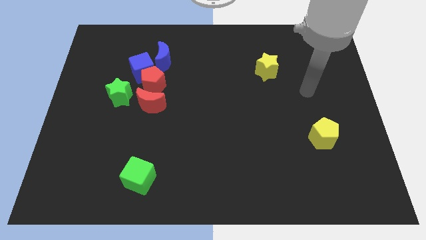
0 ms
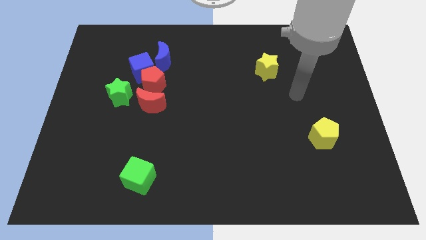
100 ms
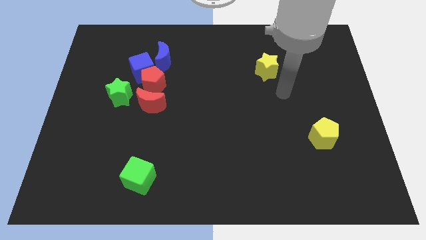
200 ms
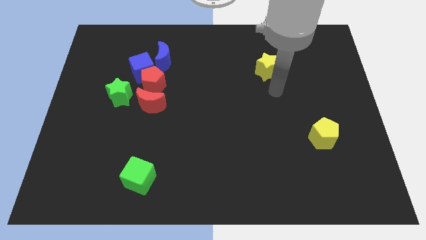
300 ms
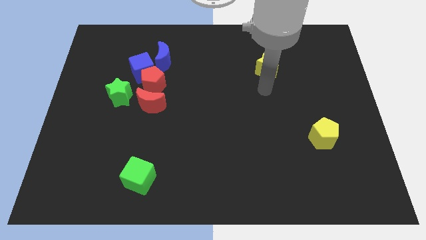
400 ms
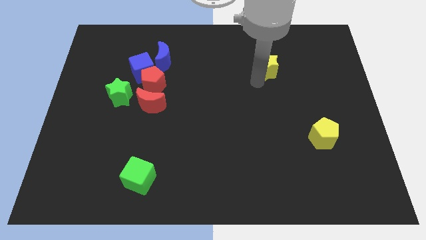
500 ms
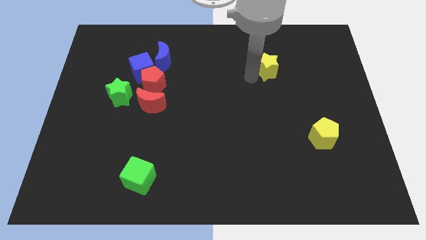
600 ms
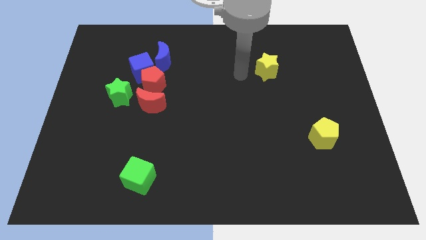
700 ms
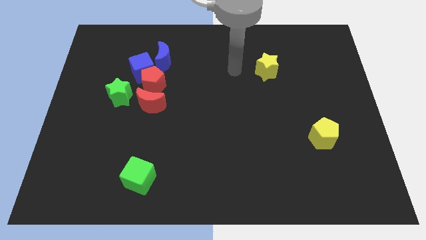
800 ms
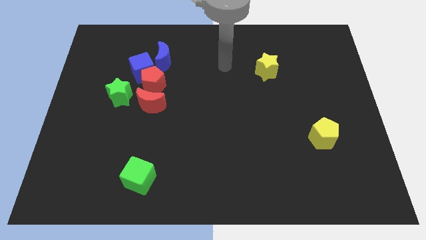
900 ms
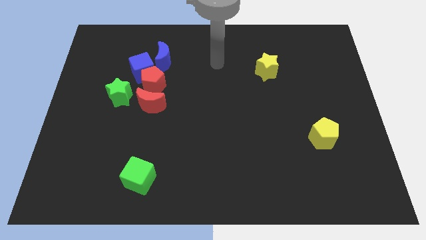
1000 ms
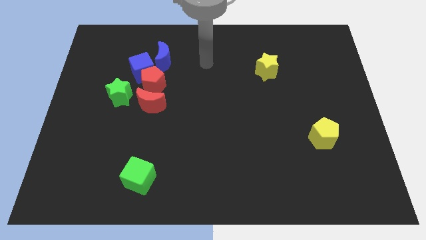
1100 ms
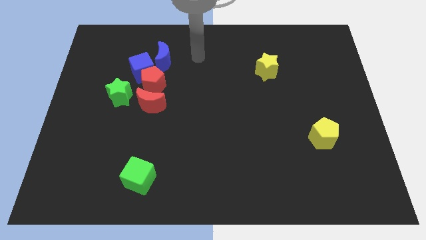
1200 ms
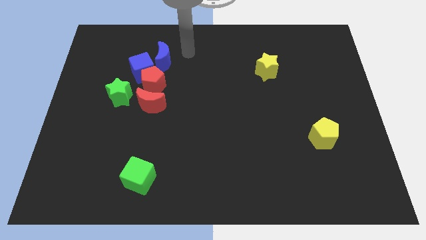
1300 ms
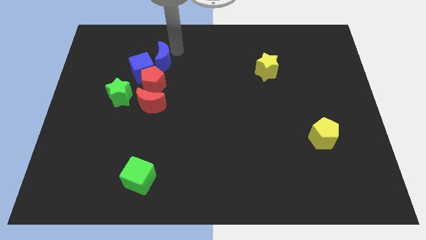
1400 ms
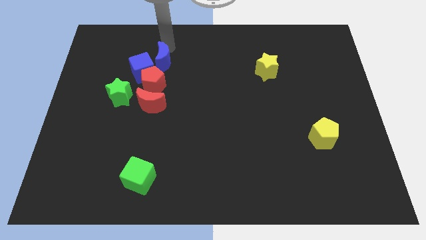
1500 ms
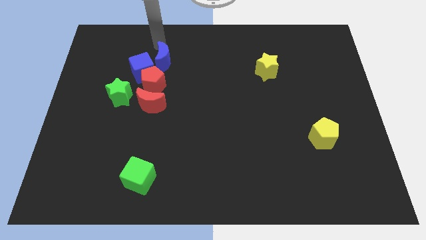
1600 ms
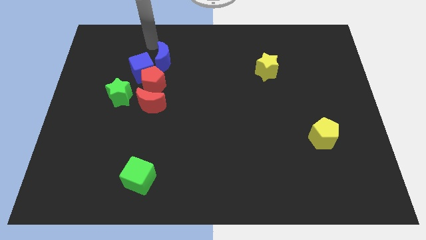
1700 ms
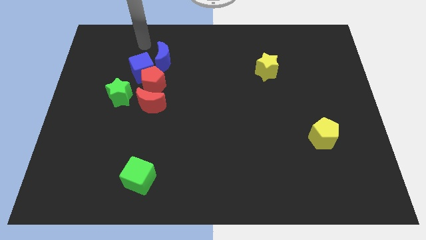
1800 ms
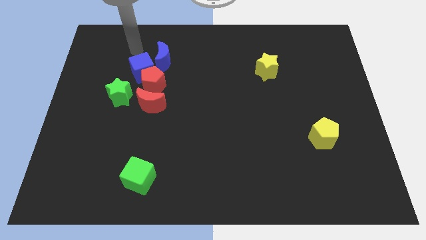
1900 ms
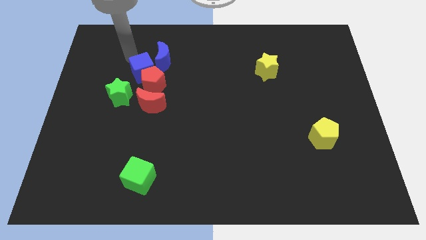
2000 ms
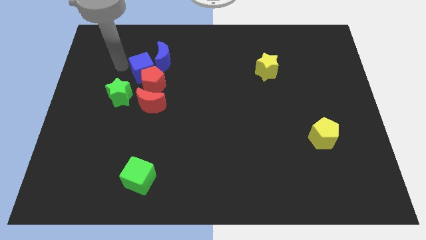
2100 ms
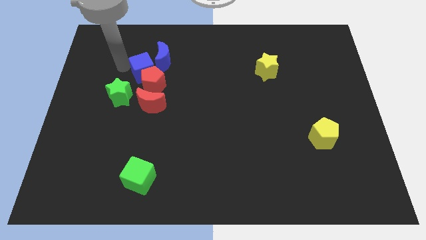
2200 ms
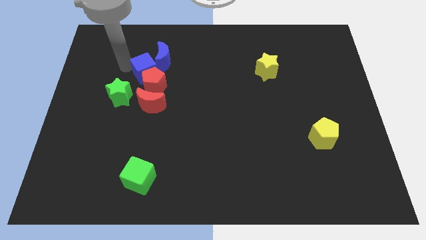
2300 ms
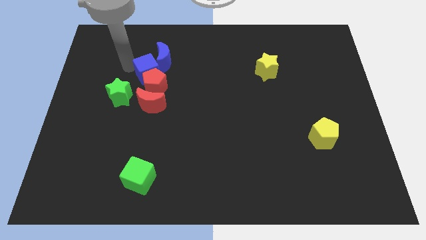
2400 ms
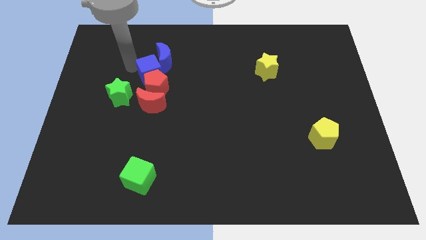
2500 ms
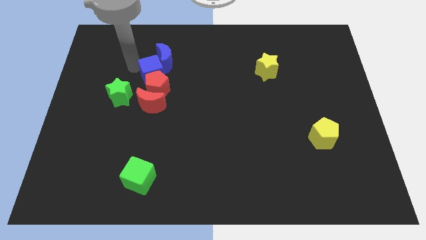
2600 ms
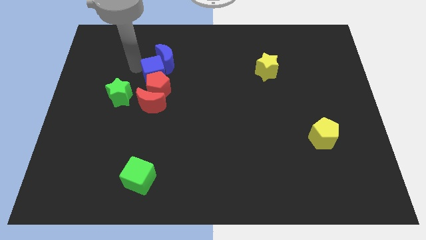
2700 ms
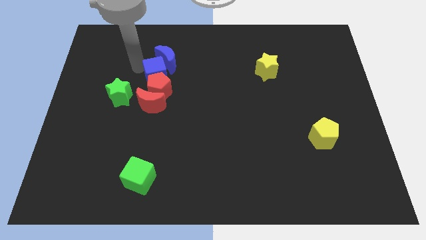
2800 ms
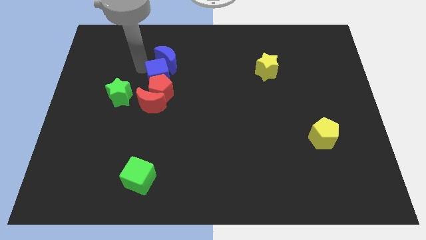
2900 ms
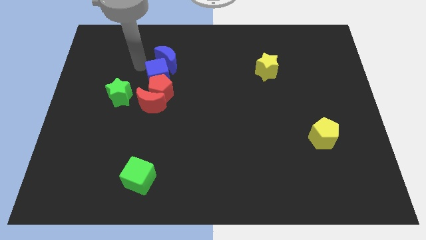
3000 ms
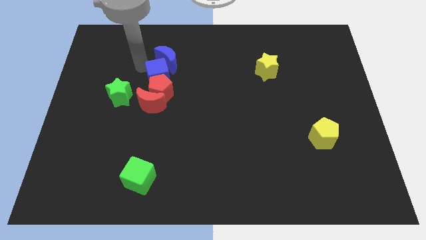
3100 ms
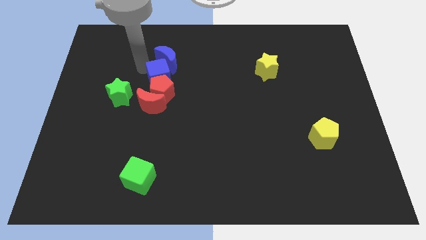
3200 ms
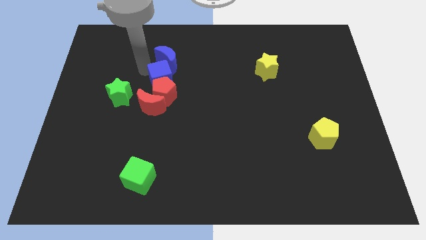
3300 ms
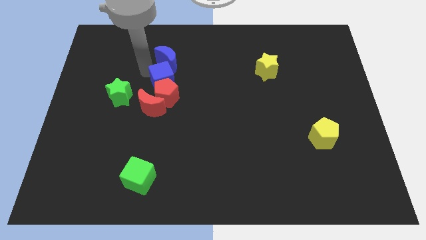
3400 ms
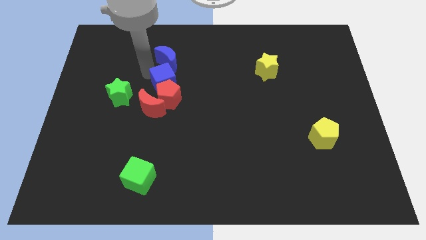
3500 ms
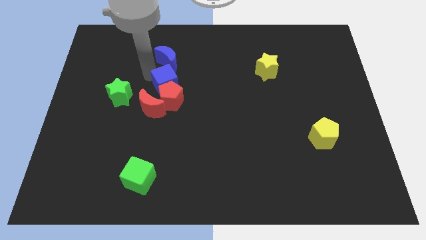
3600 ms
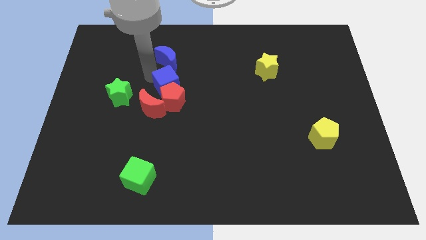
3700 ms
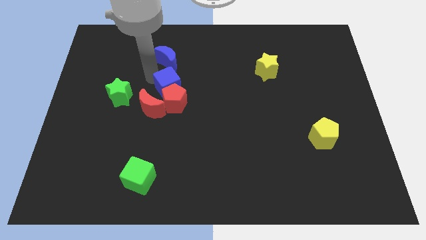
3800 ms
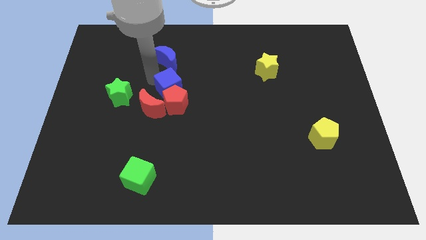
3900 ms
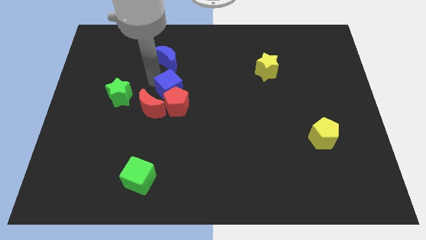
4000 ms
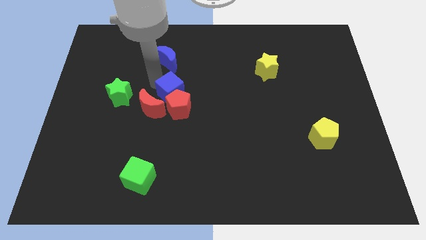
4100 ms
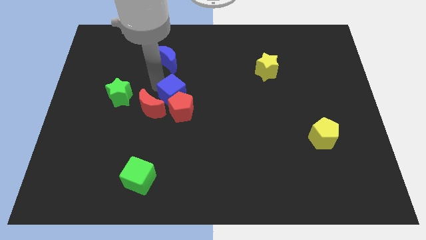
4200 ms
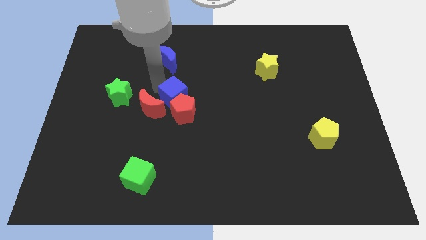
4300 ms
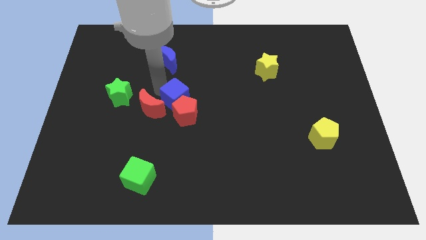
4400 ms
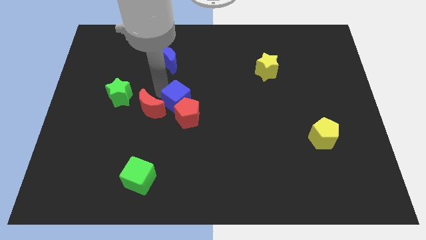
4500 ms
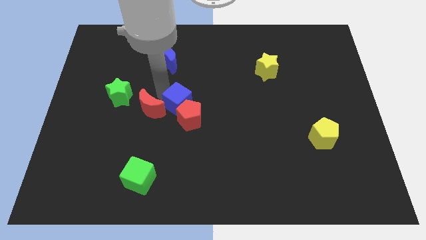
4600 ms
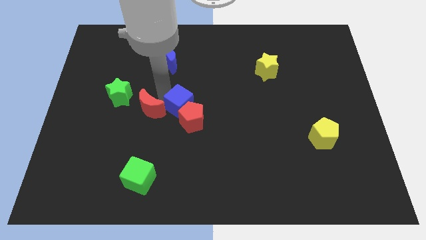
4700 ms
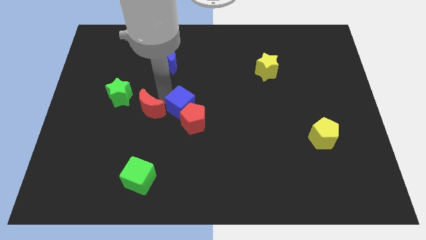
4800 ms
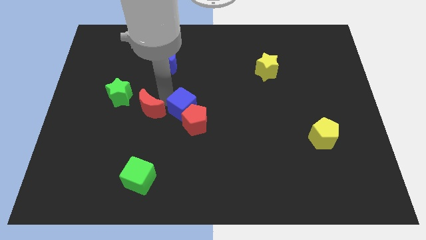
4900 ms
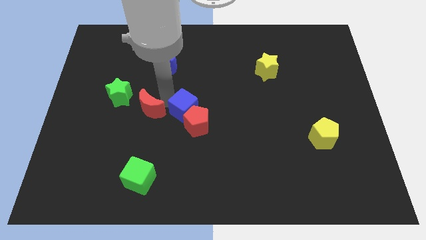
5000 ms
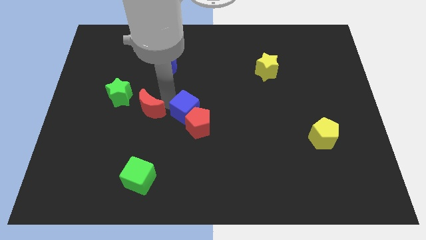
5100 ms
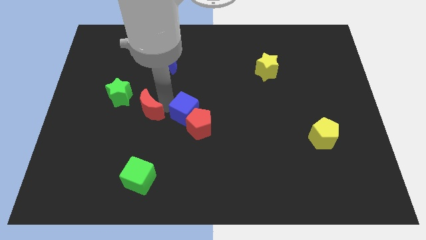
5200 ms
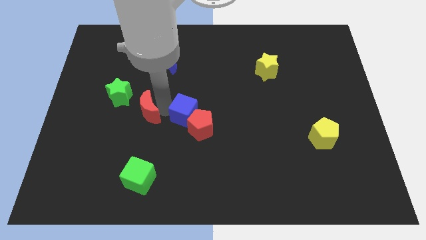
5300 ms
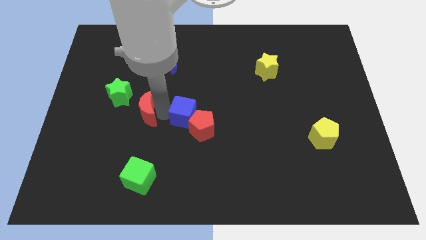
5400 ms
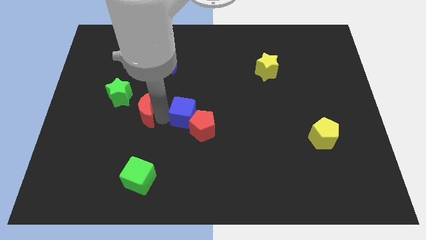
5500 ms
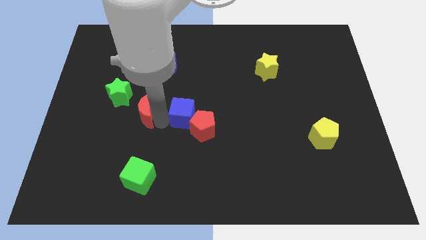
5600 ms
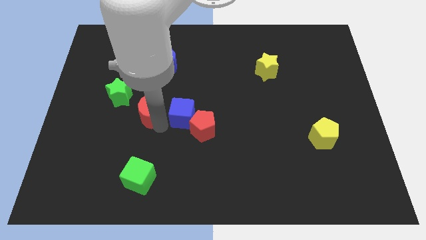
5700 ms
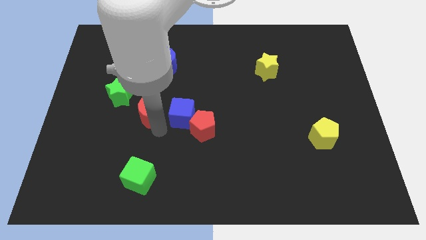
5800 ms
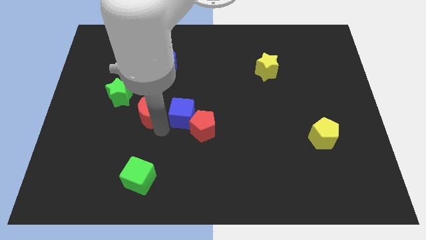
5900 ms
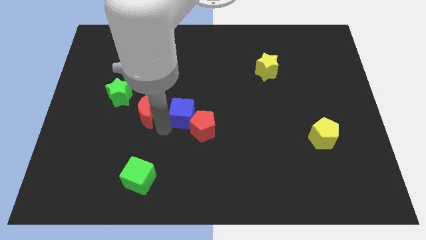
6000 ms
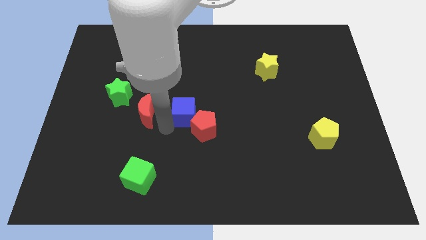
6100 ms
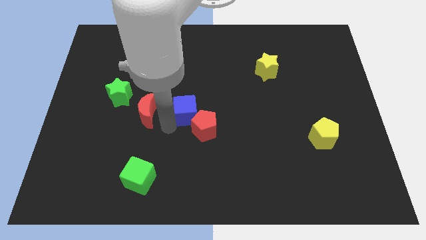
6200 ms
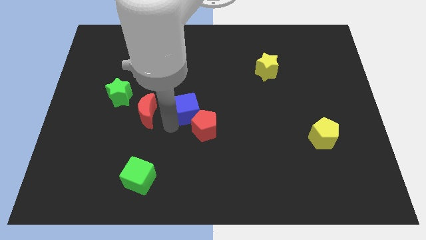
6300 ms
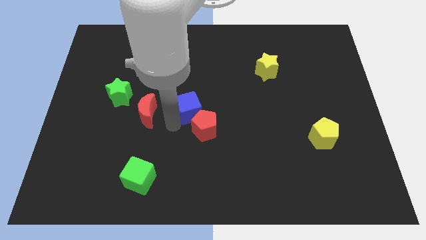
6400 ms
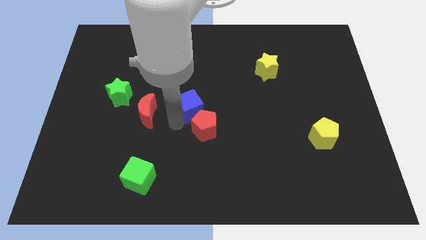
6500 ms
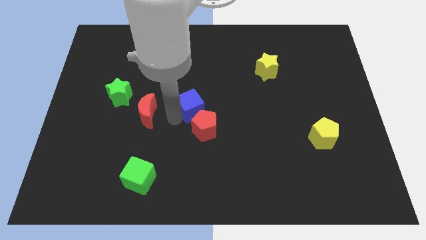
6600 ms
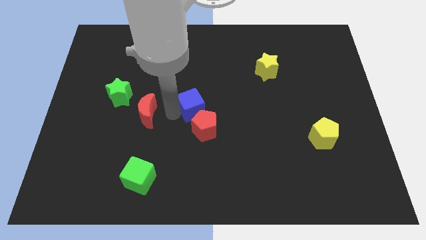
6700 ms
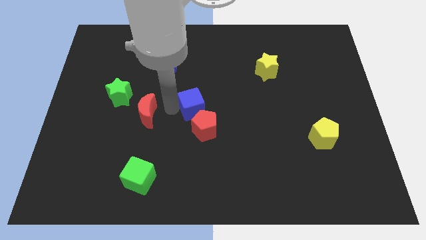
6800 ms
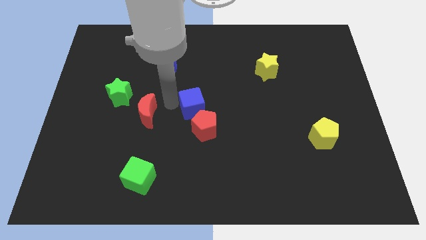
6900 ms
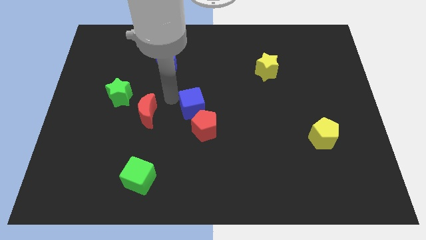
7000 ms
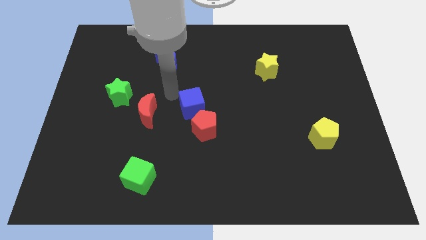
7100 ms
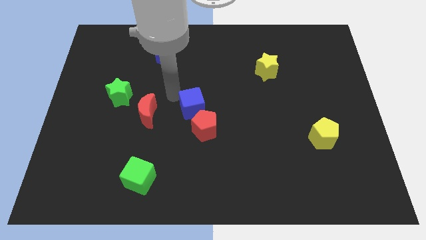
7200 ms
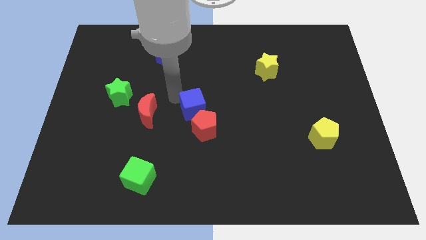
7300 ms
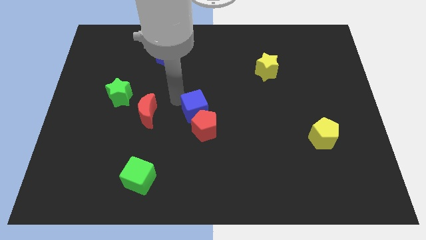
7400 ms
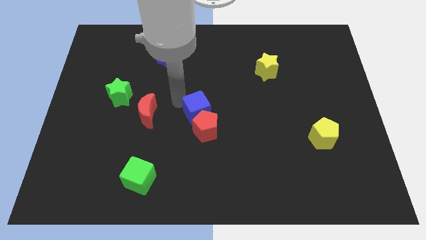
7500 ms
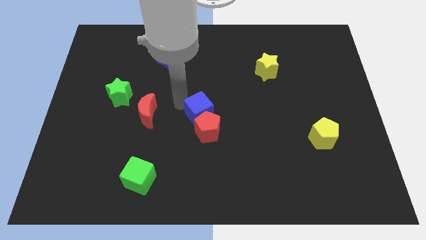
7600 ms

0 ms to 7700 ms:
move the blue cube down and right diagonally

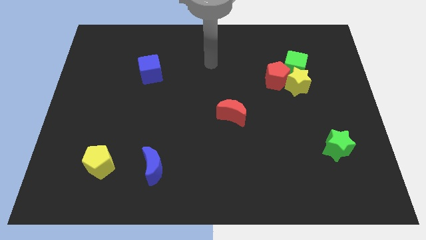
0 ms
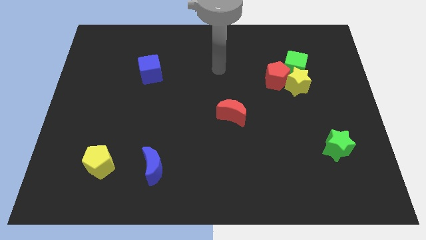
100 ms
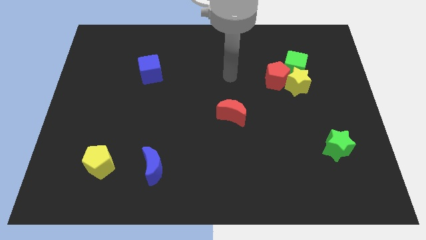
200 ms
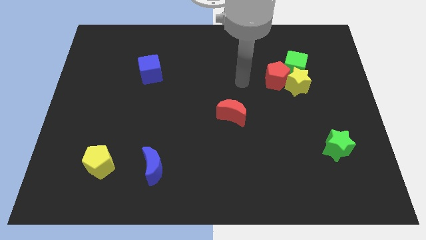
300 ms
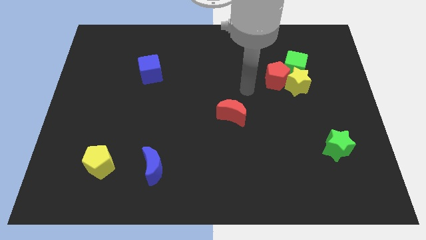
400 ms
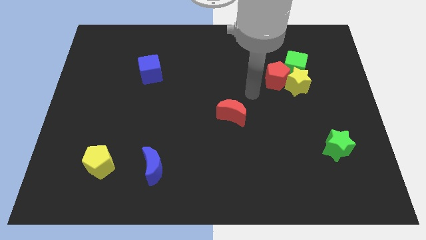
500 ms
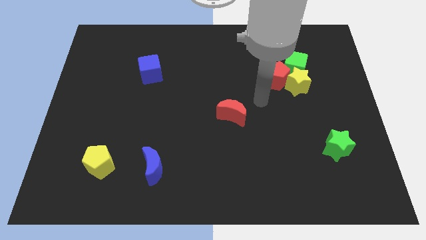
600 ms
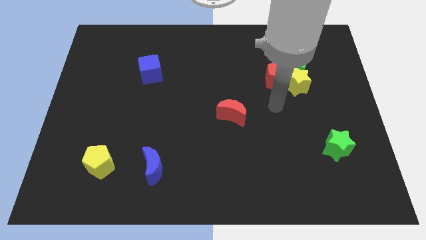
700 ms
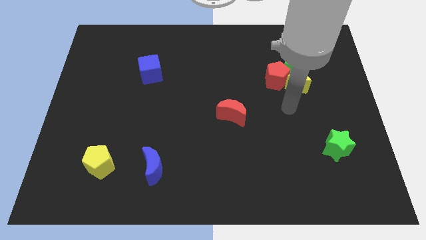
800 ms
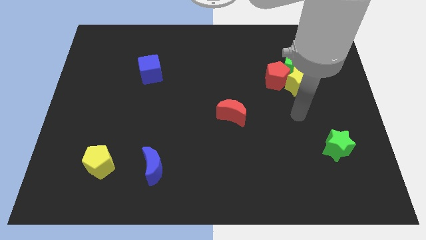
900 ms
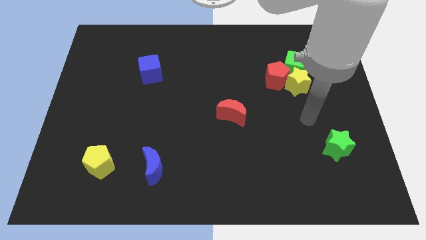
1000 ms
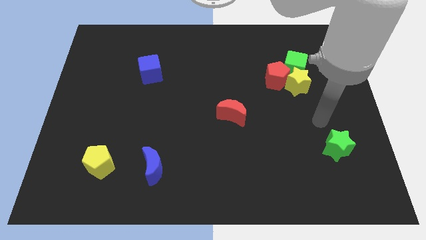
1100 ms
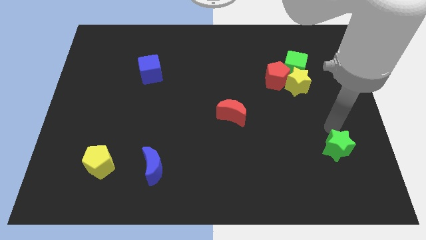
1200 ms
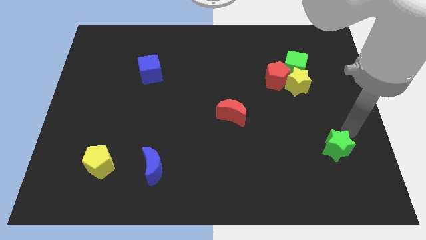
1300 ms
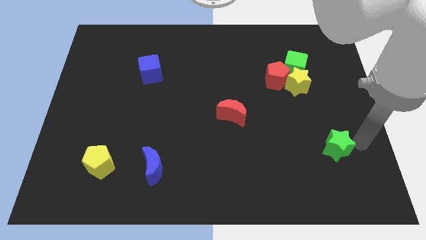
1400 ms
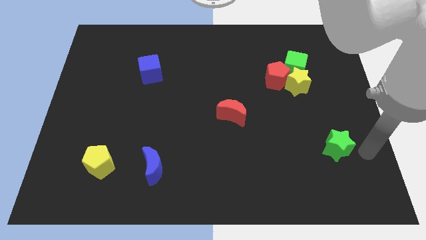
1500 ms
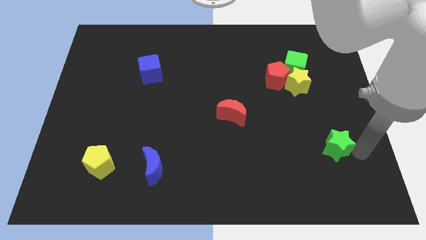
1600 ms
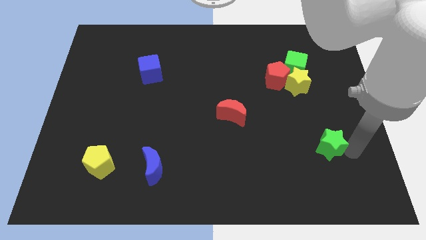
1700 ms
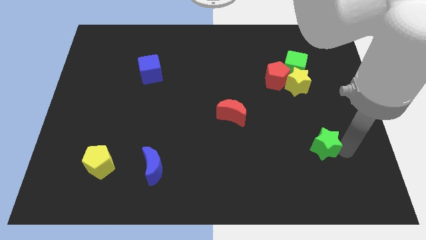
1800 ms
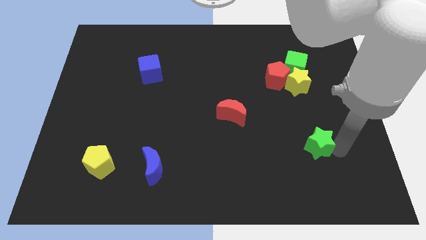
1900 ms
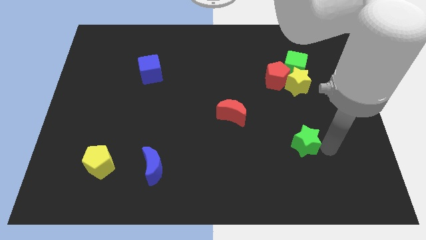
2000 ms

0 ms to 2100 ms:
push the green star left a bit
